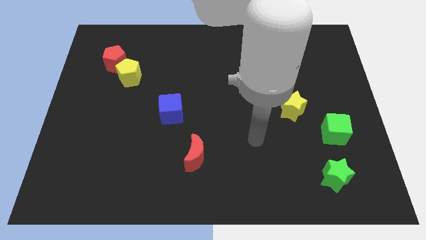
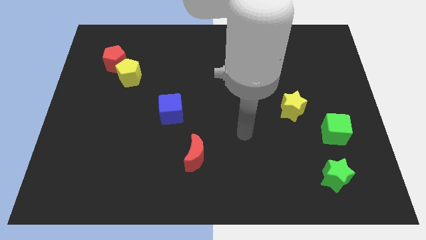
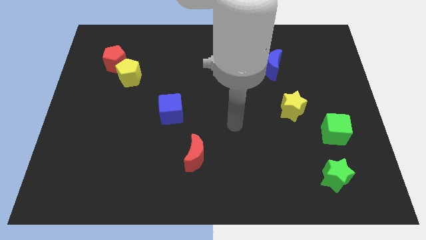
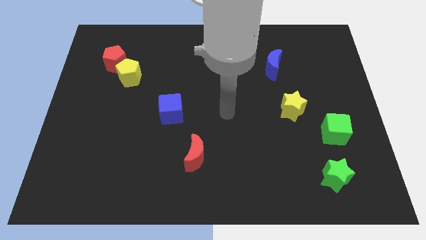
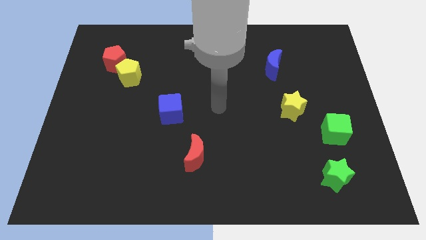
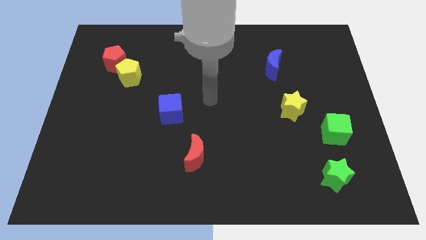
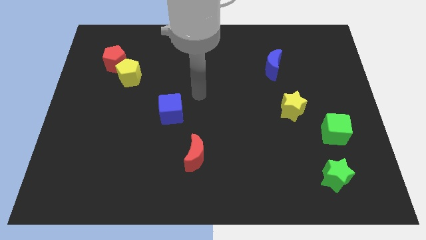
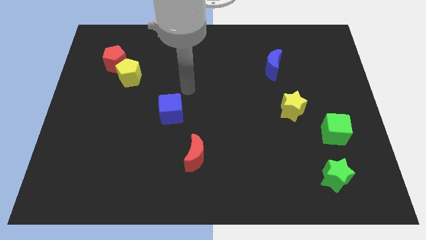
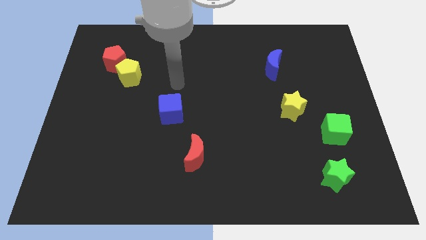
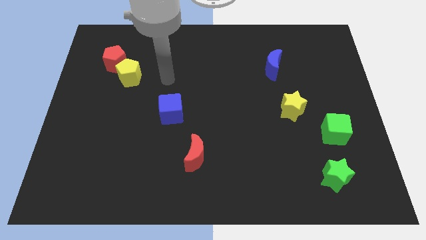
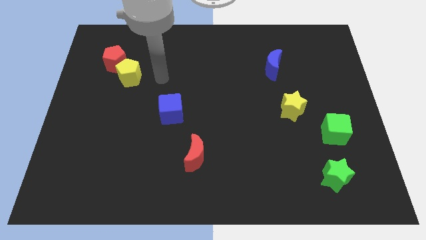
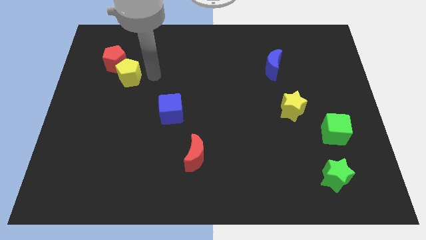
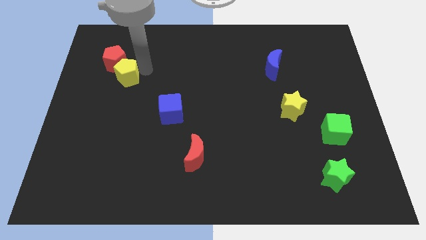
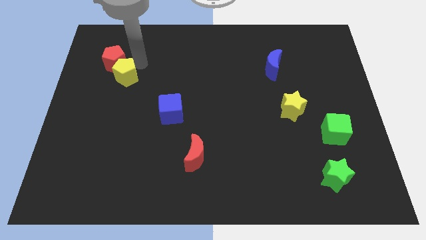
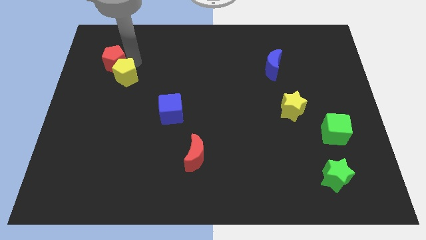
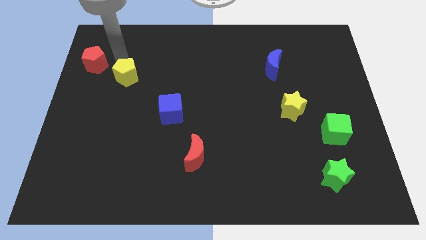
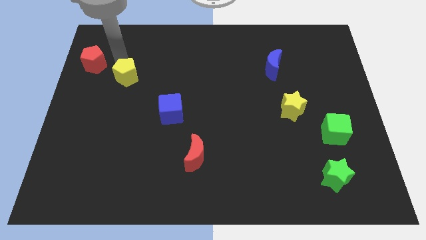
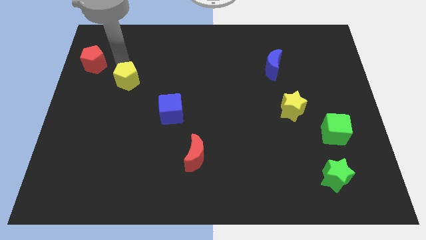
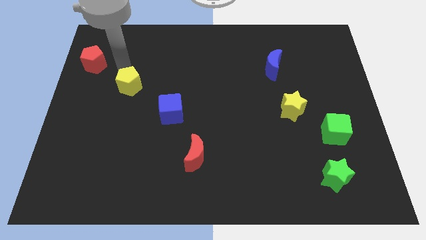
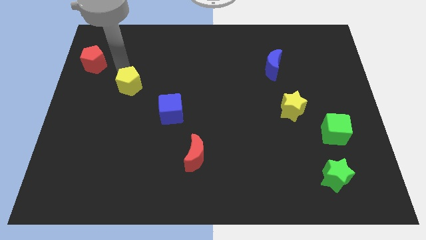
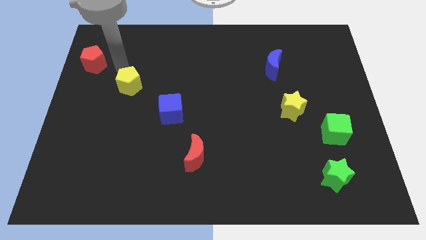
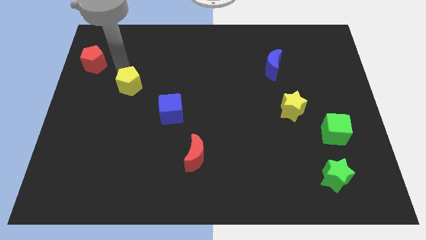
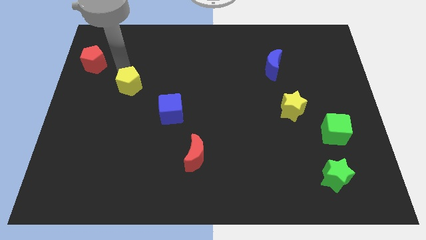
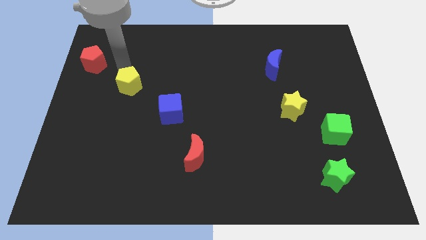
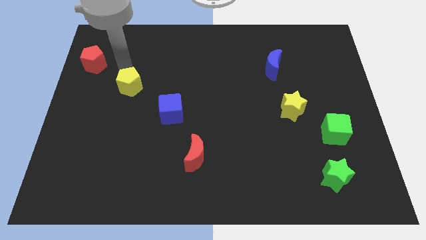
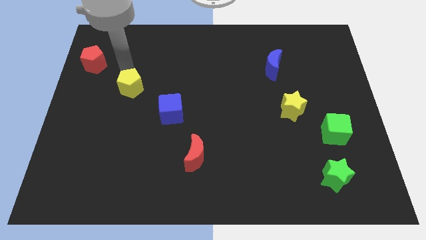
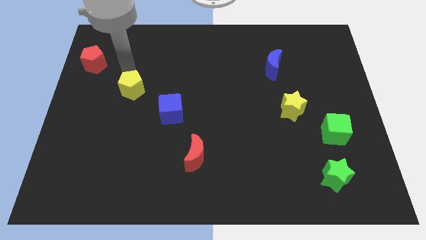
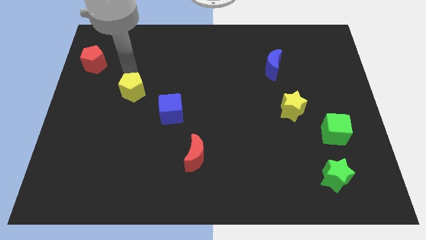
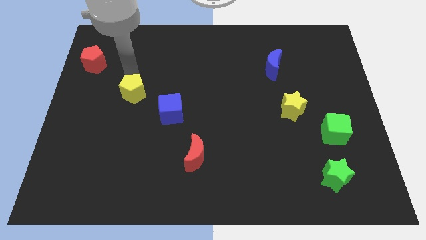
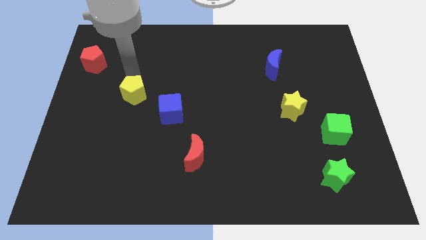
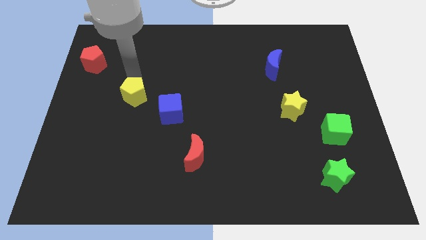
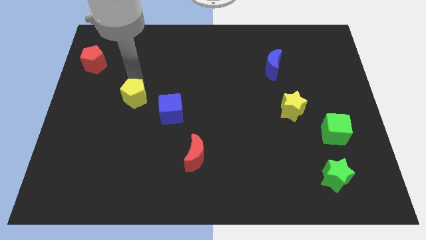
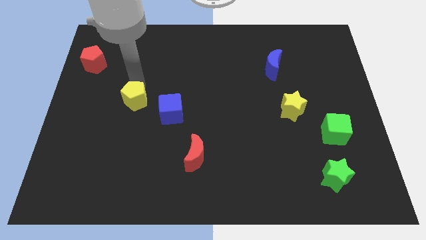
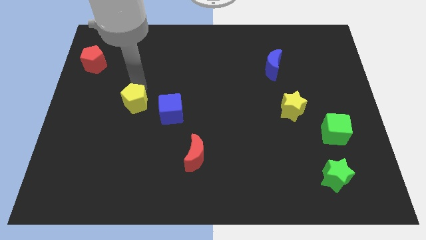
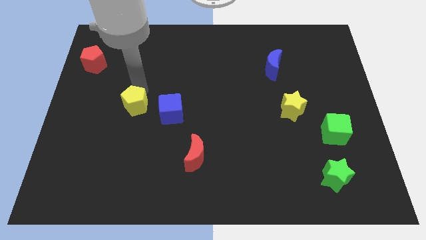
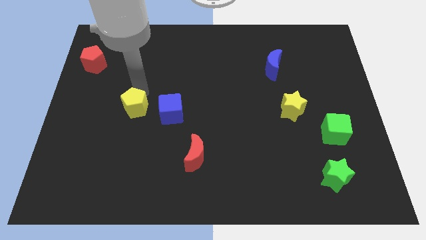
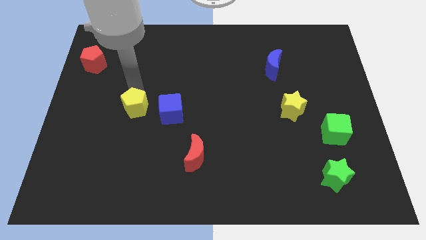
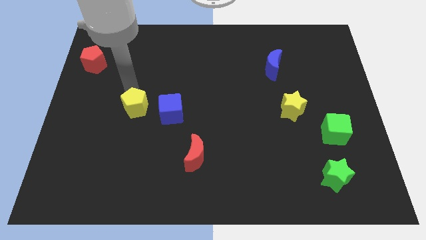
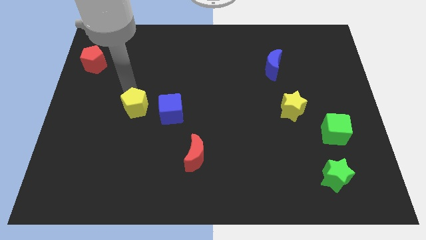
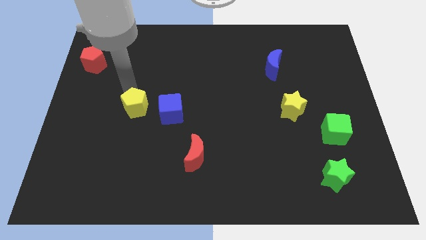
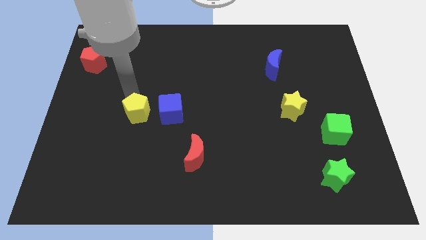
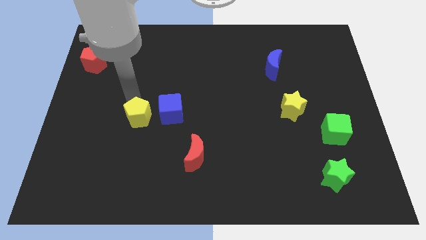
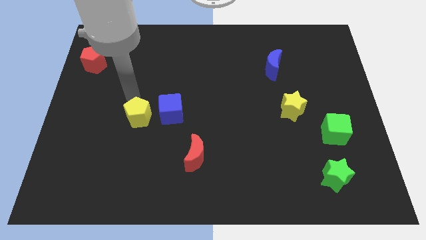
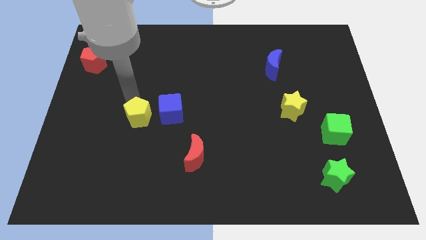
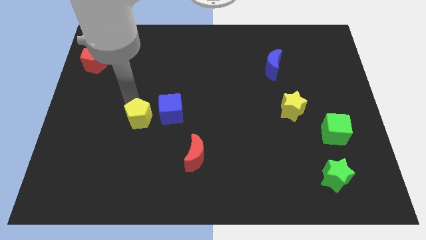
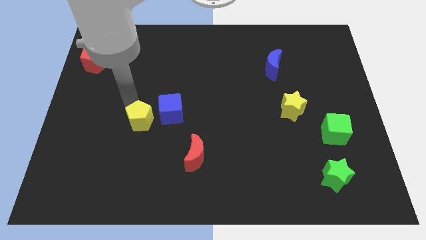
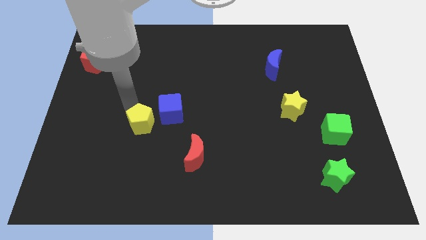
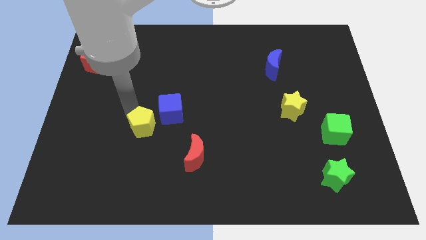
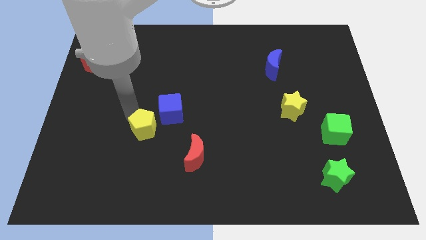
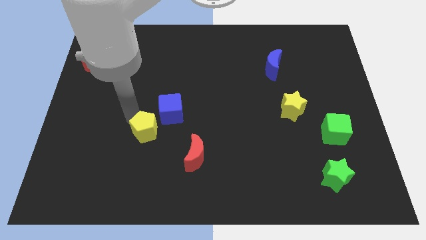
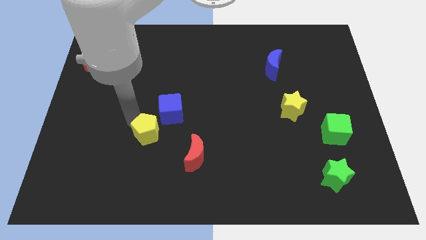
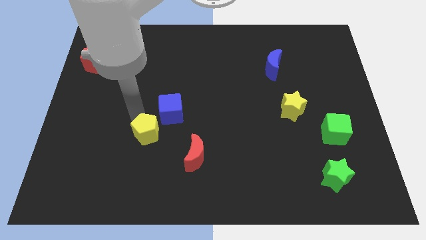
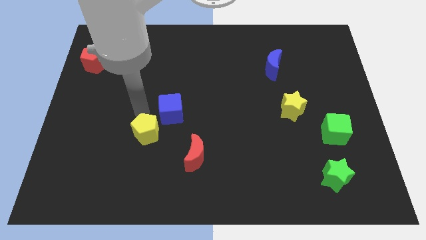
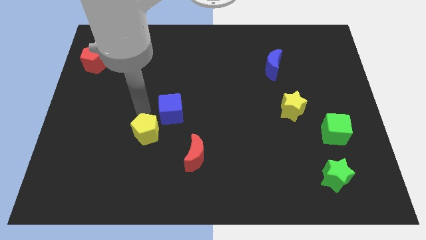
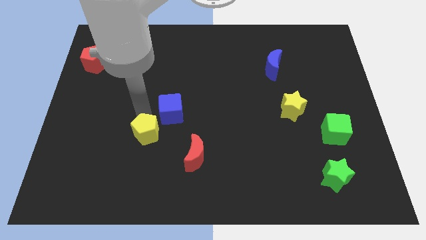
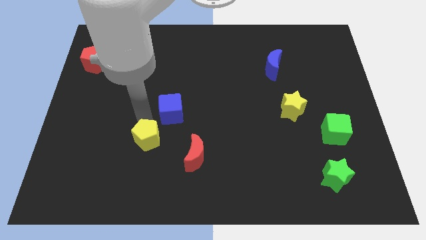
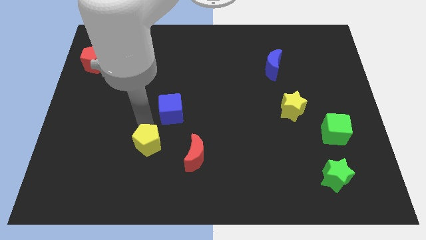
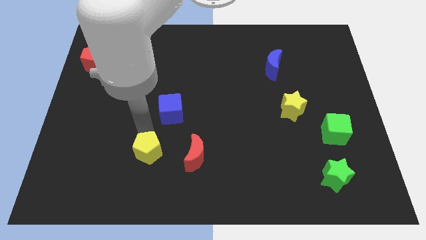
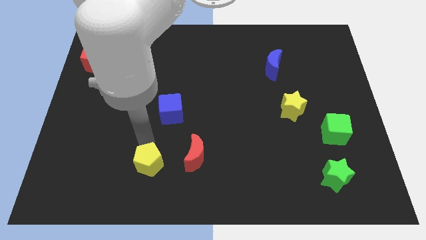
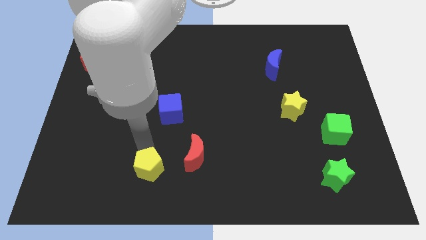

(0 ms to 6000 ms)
put the yellow pentagon diagonally down and to the left of the red moon

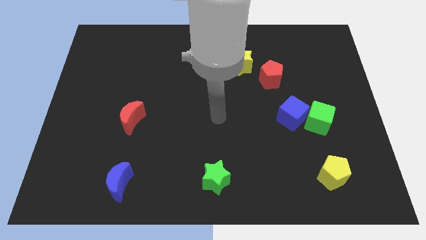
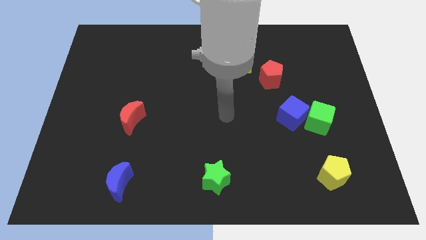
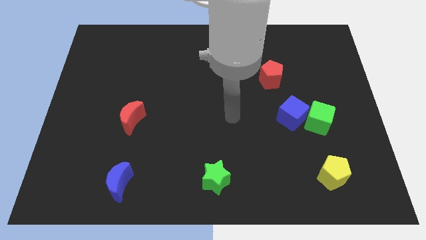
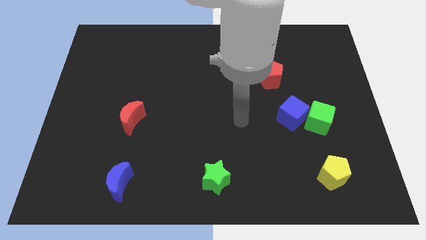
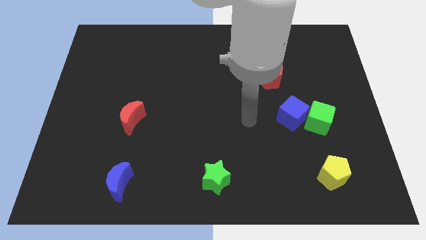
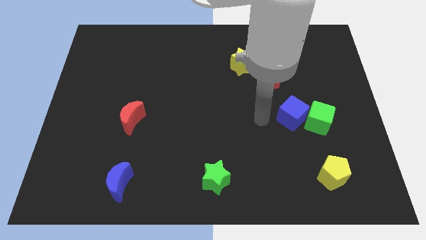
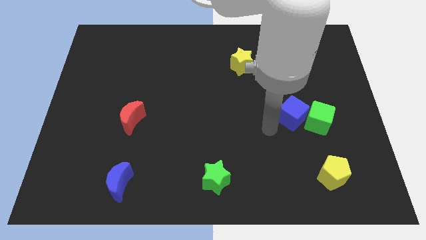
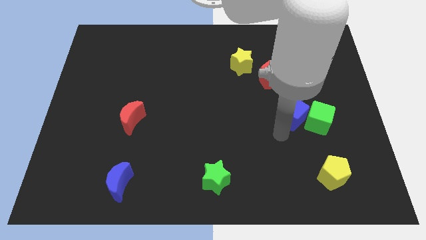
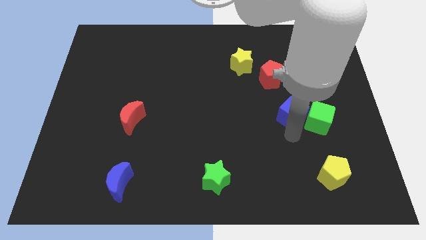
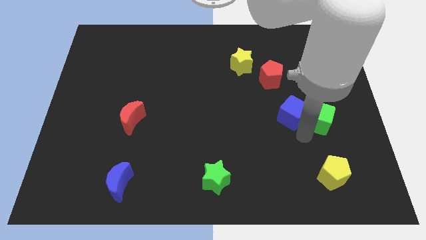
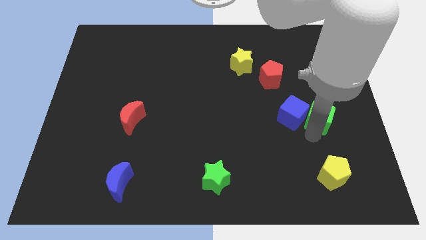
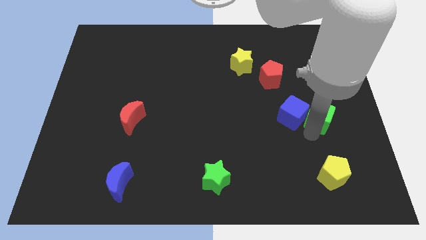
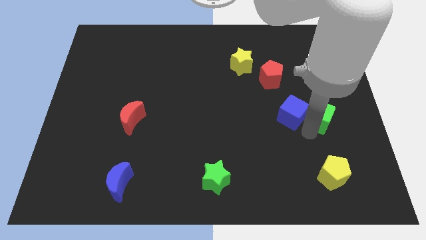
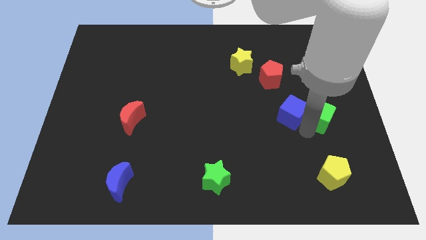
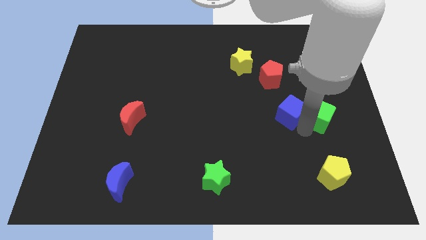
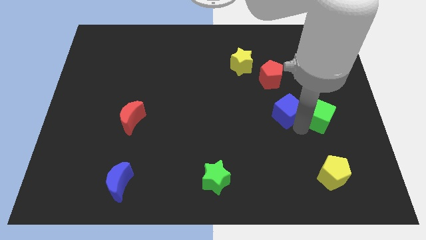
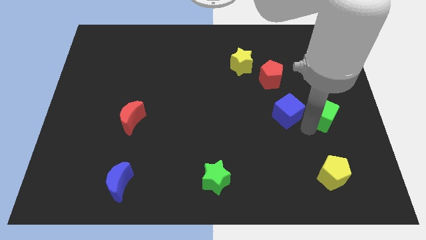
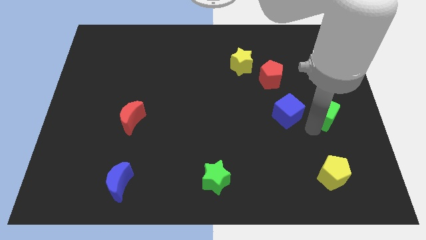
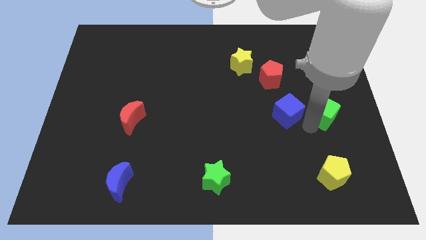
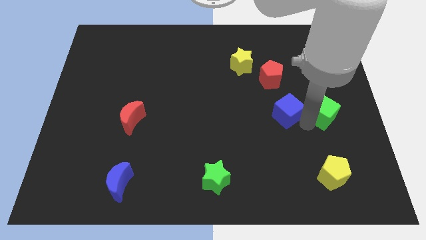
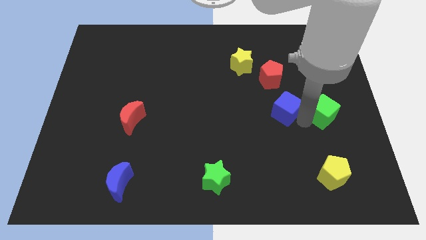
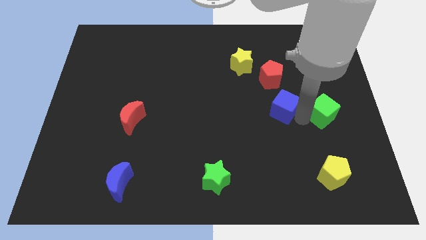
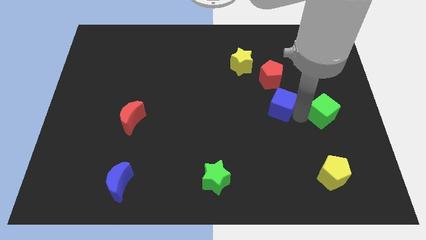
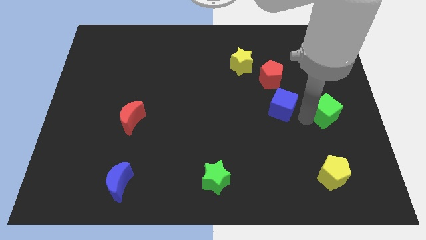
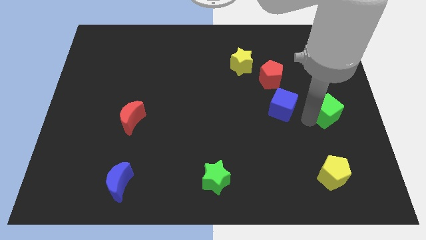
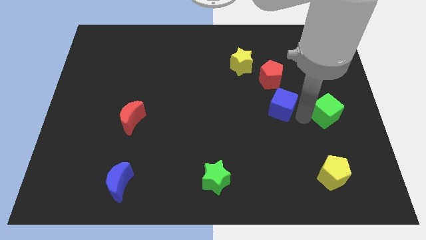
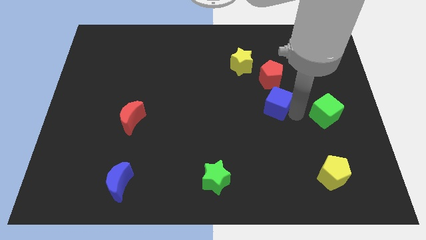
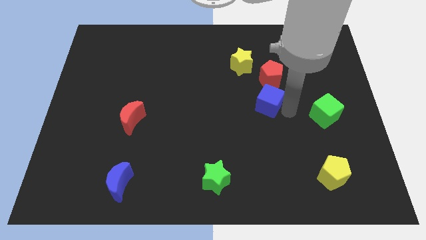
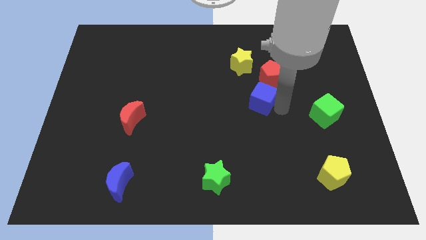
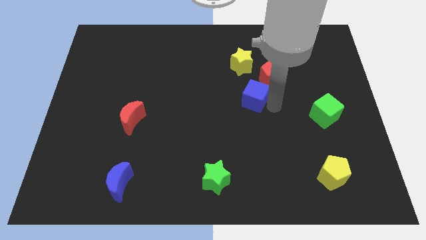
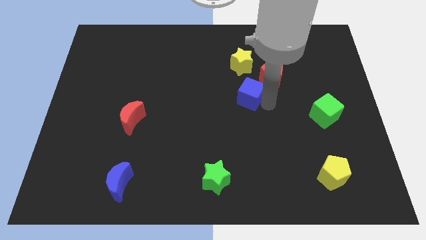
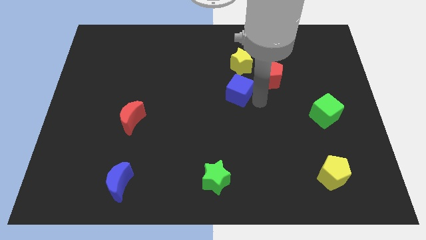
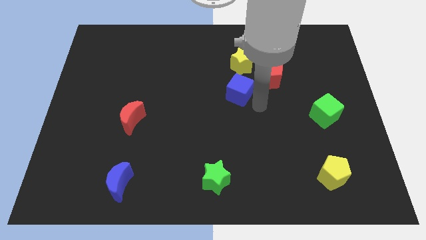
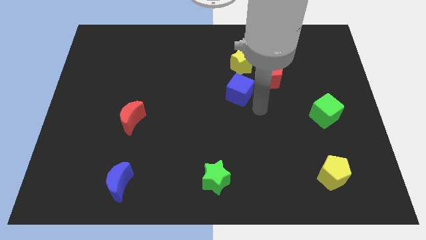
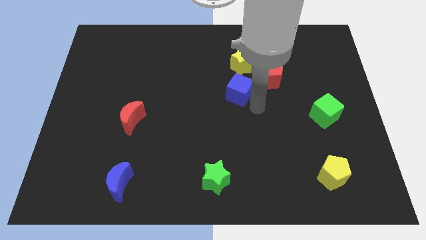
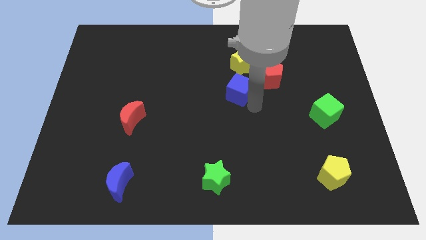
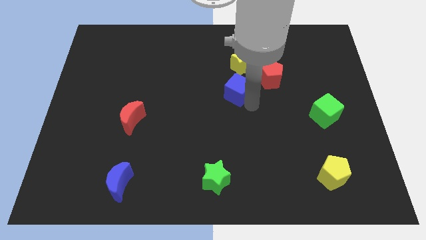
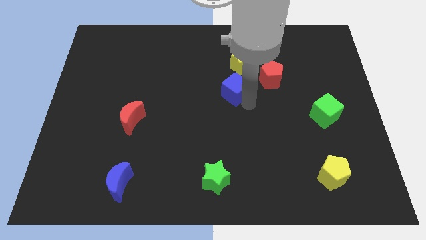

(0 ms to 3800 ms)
slide the blue cube to the bottom left side of the yellow star
